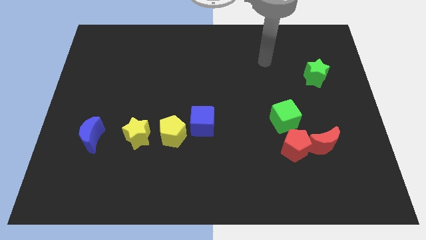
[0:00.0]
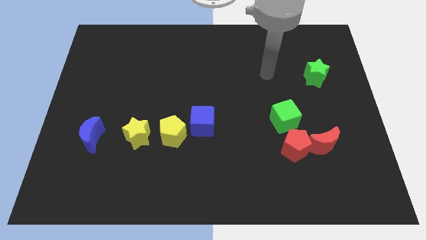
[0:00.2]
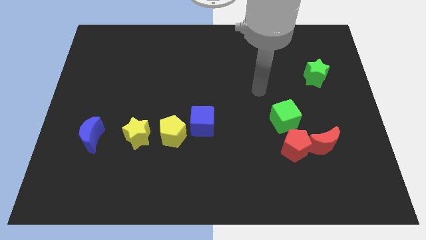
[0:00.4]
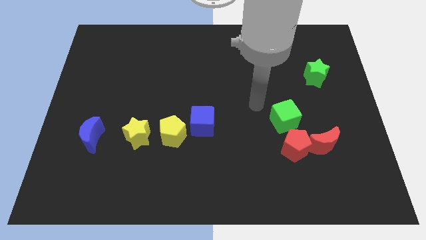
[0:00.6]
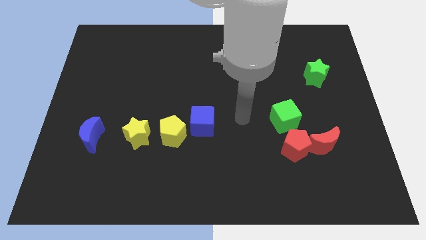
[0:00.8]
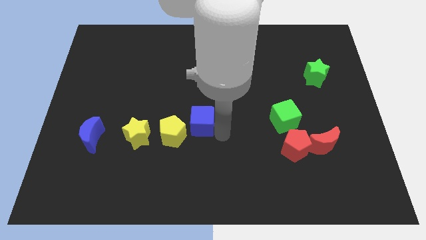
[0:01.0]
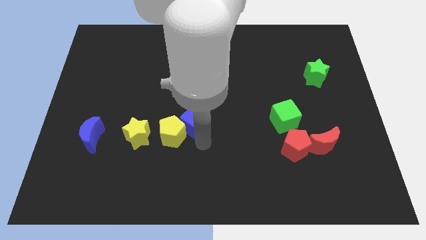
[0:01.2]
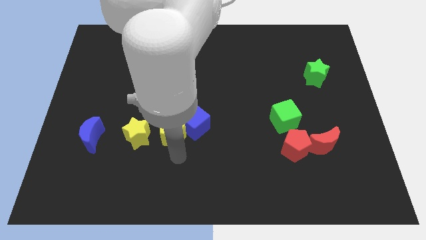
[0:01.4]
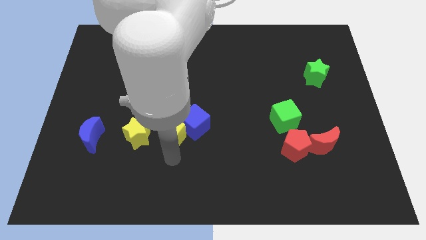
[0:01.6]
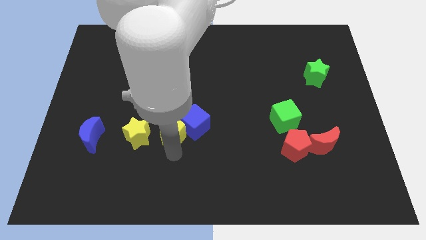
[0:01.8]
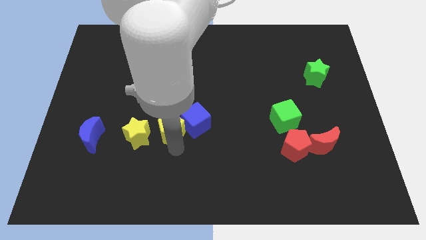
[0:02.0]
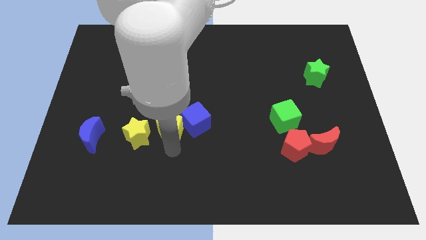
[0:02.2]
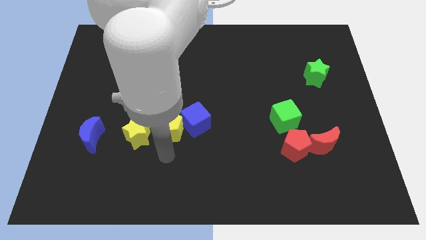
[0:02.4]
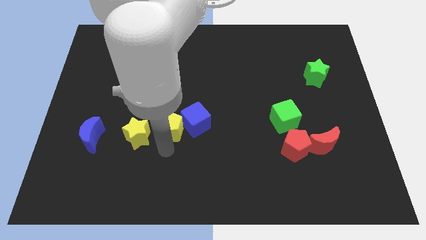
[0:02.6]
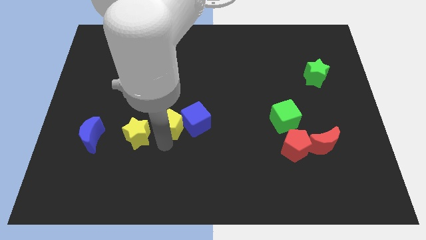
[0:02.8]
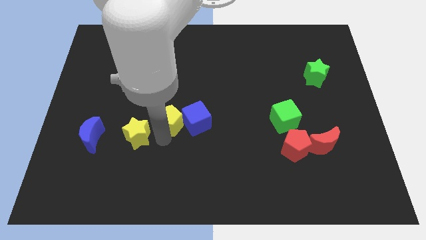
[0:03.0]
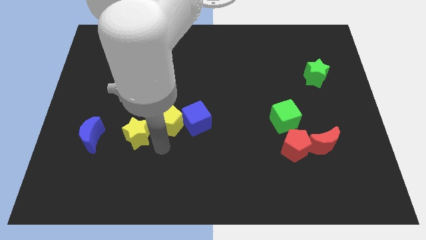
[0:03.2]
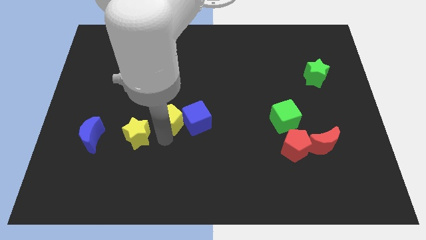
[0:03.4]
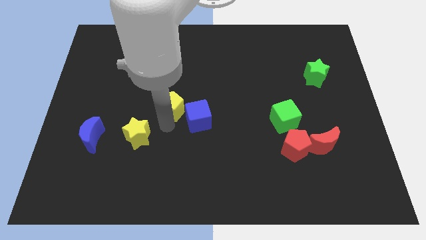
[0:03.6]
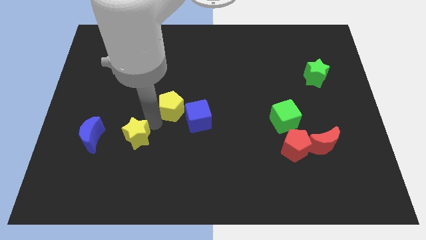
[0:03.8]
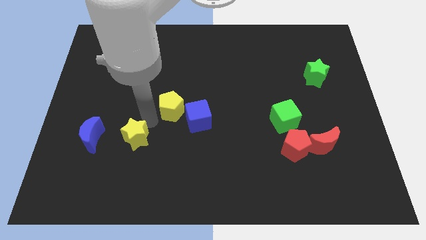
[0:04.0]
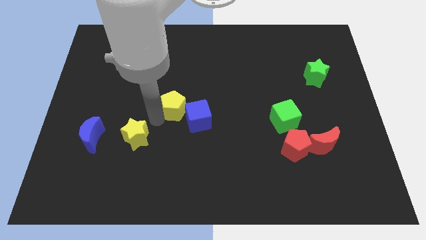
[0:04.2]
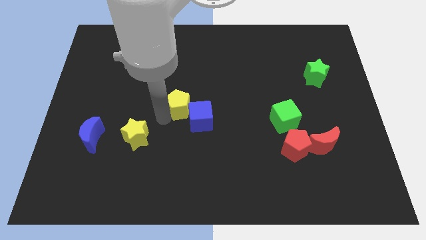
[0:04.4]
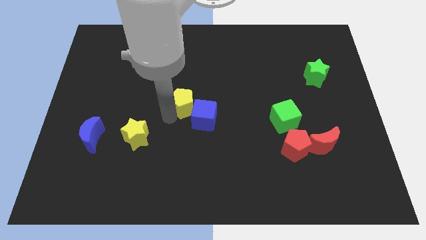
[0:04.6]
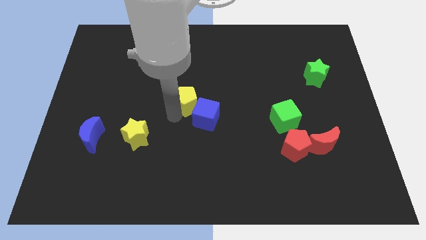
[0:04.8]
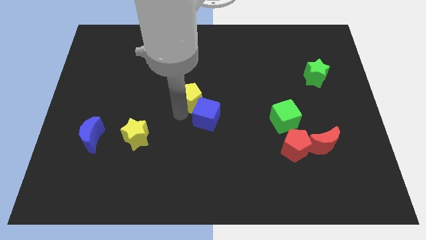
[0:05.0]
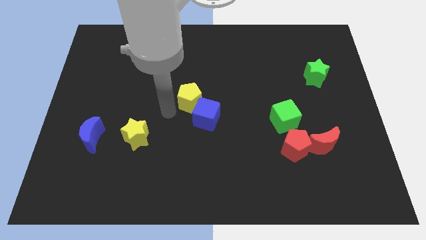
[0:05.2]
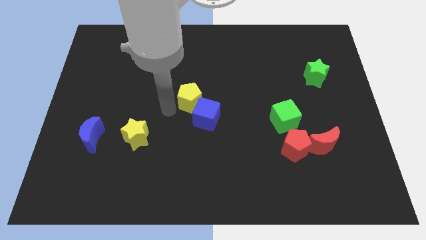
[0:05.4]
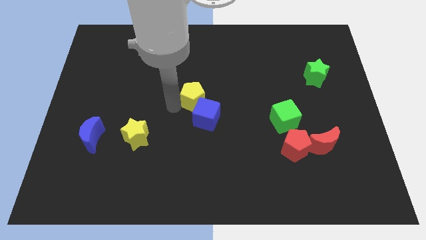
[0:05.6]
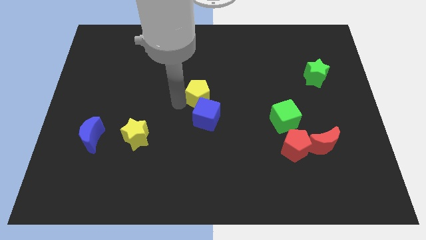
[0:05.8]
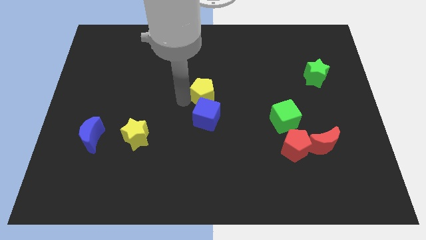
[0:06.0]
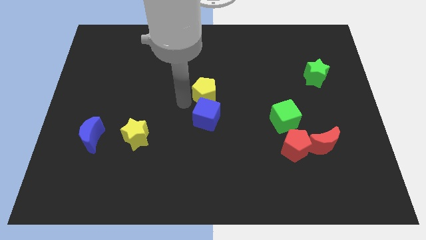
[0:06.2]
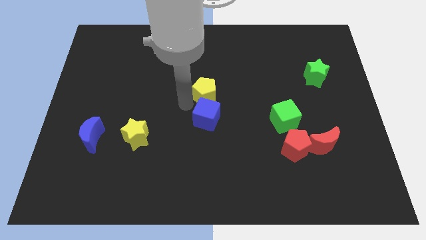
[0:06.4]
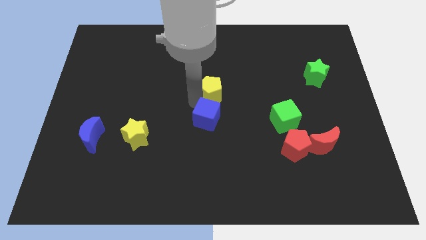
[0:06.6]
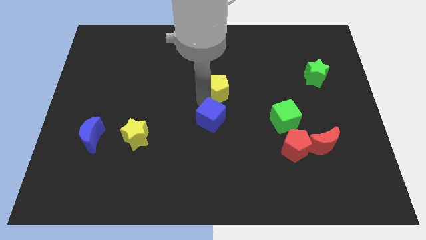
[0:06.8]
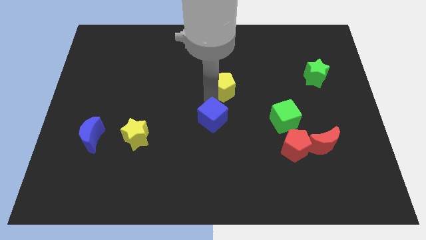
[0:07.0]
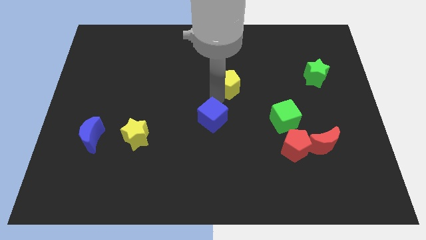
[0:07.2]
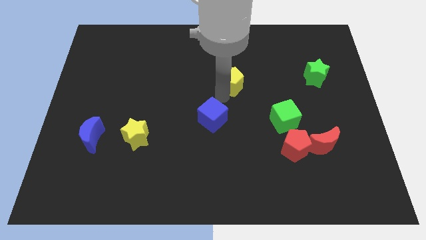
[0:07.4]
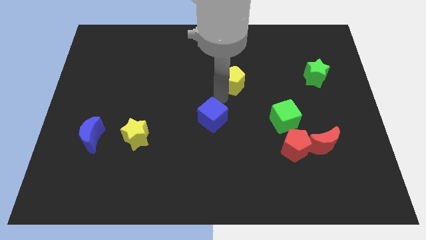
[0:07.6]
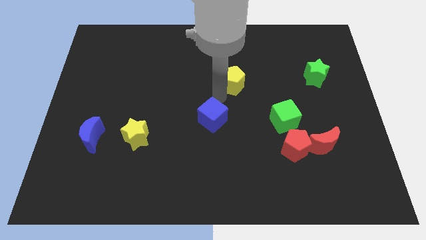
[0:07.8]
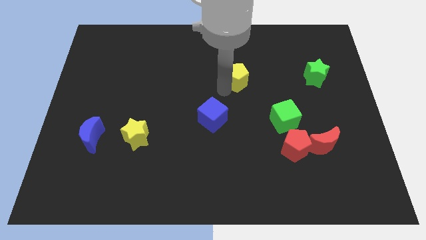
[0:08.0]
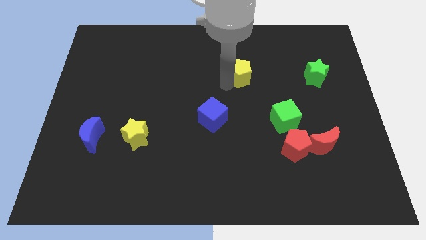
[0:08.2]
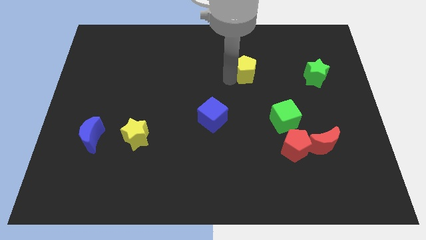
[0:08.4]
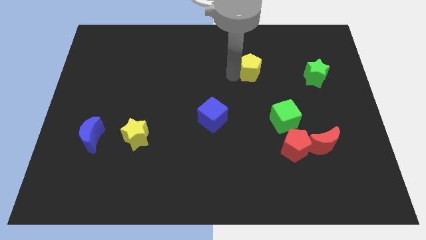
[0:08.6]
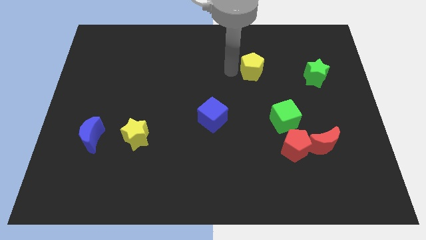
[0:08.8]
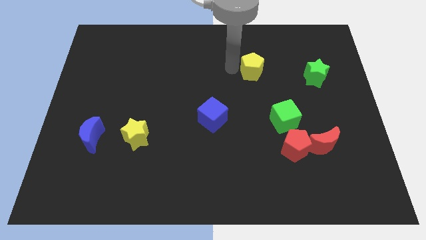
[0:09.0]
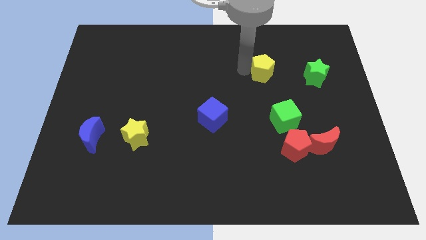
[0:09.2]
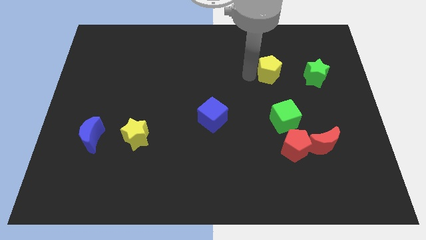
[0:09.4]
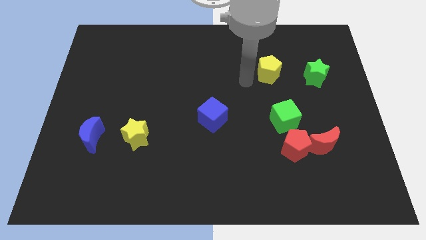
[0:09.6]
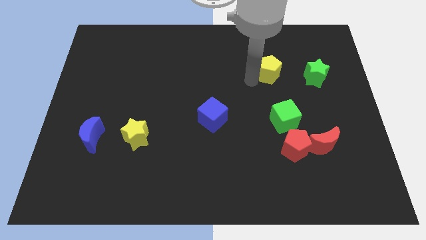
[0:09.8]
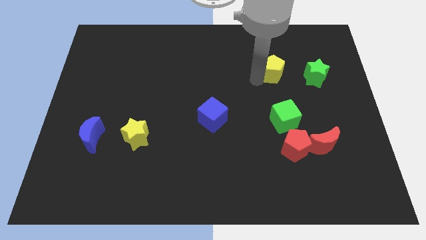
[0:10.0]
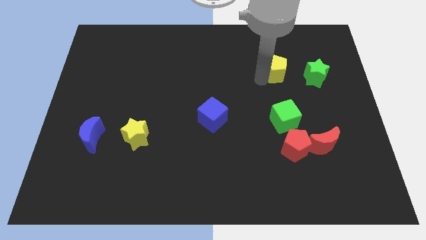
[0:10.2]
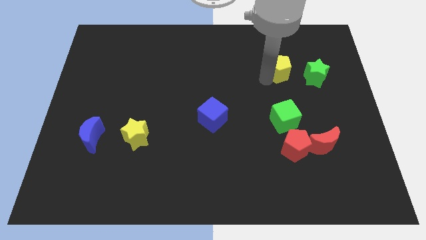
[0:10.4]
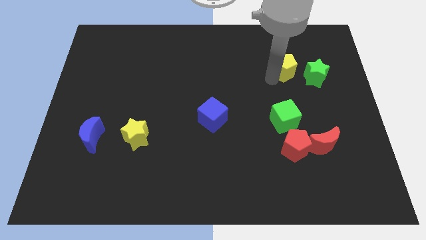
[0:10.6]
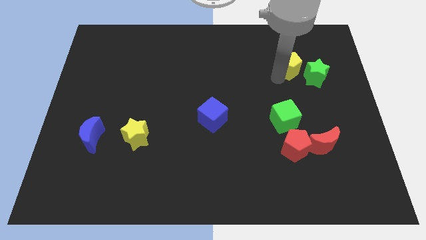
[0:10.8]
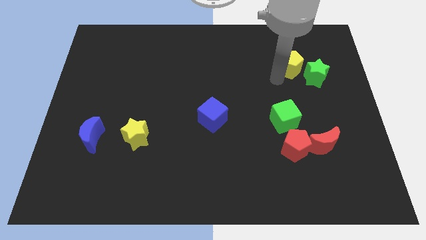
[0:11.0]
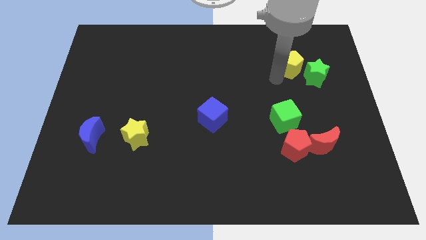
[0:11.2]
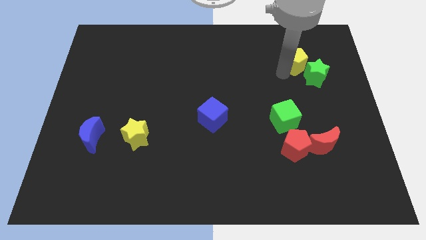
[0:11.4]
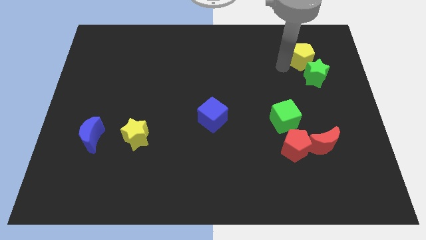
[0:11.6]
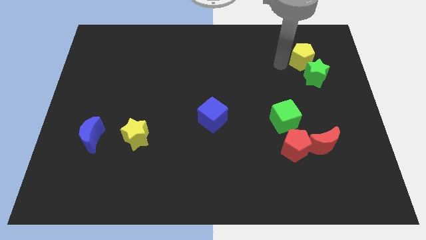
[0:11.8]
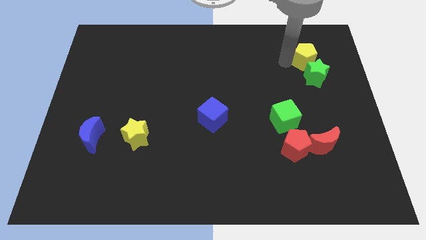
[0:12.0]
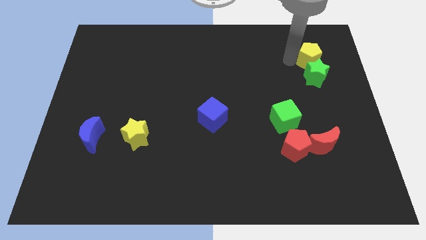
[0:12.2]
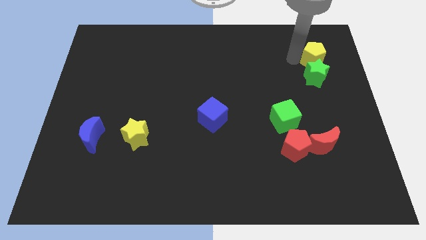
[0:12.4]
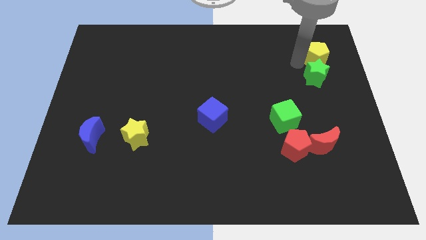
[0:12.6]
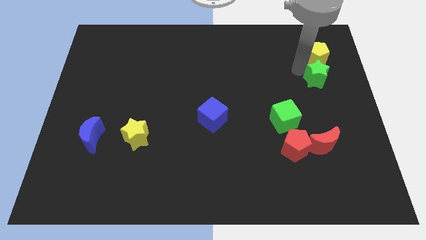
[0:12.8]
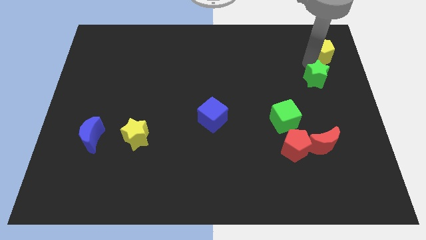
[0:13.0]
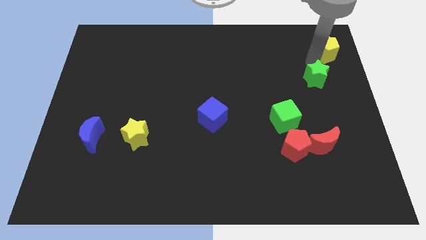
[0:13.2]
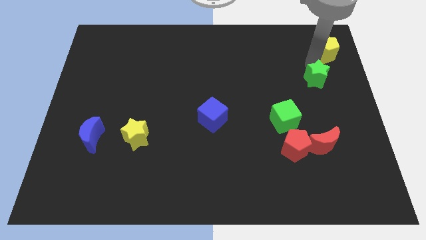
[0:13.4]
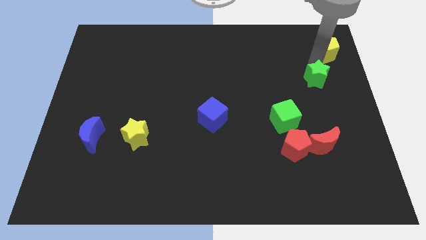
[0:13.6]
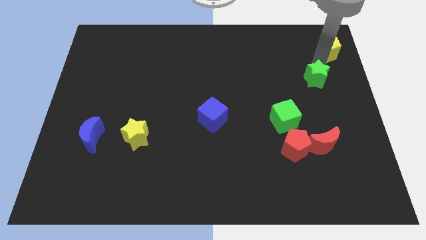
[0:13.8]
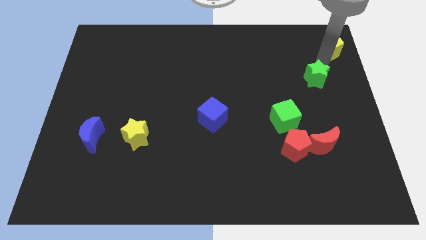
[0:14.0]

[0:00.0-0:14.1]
put the yellow pentagon to the upper right corner
